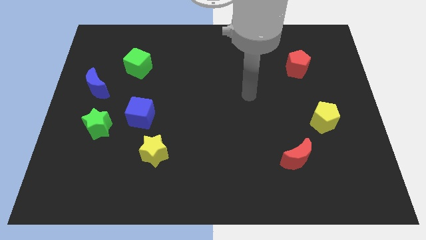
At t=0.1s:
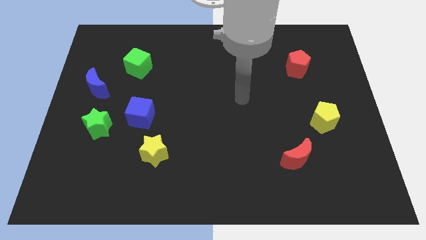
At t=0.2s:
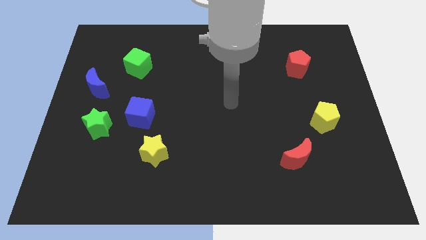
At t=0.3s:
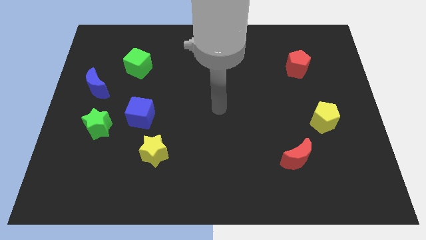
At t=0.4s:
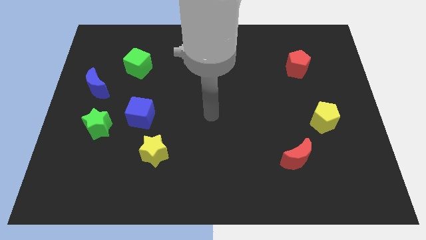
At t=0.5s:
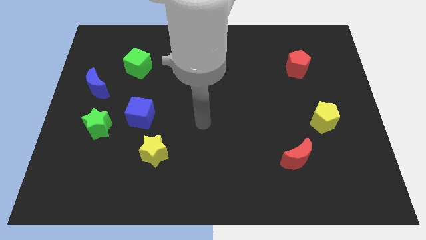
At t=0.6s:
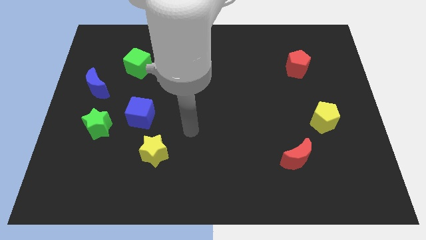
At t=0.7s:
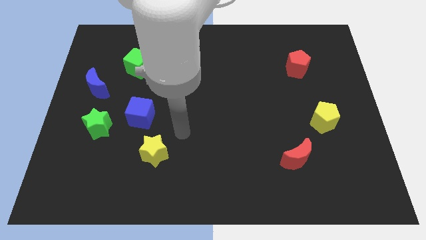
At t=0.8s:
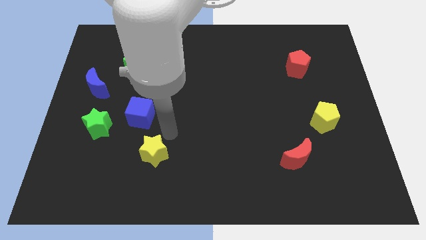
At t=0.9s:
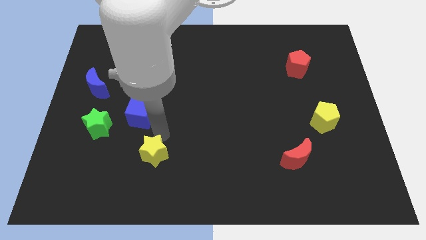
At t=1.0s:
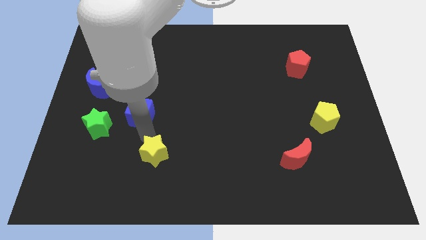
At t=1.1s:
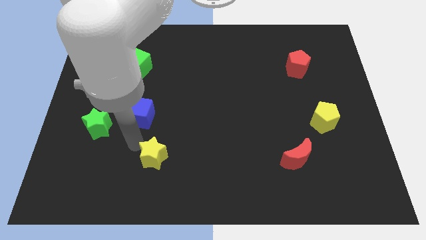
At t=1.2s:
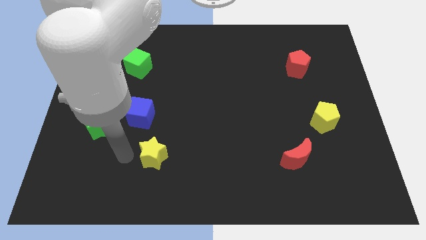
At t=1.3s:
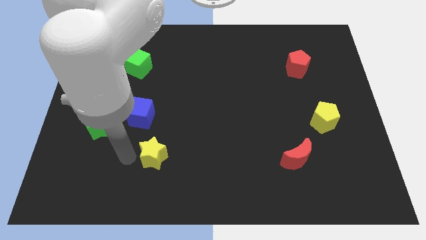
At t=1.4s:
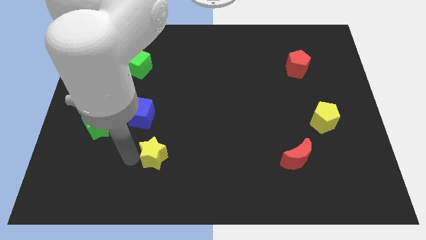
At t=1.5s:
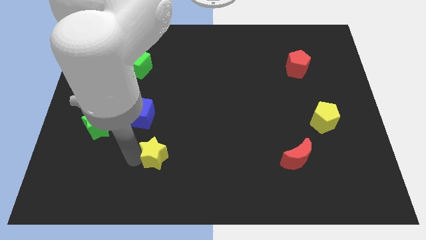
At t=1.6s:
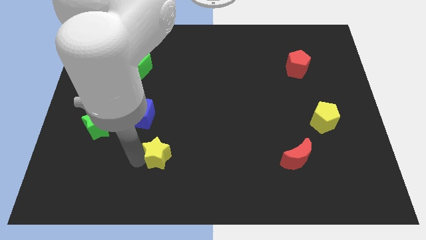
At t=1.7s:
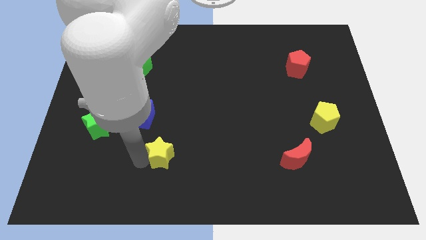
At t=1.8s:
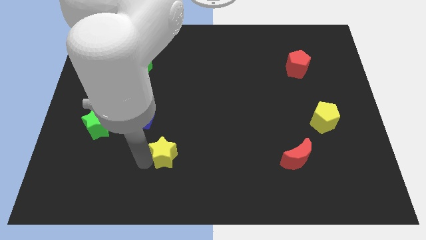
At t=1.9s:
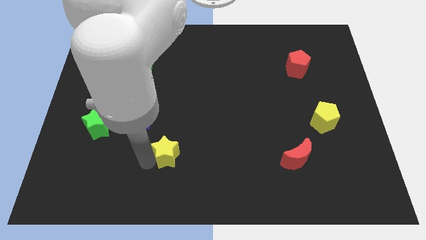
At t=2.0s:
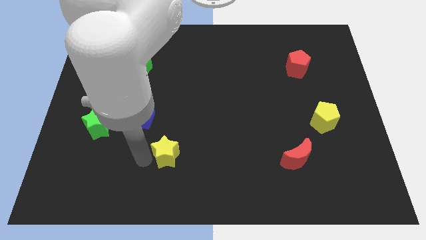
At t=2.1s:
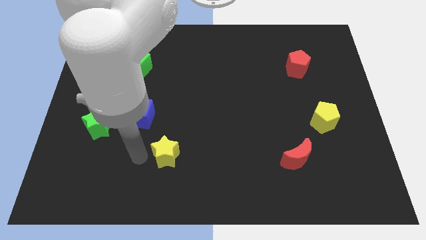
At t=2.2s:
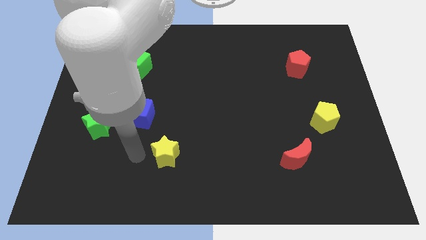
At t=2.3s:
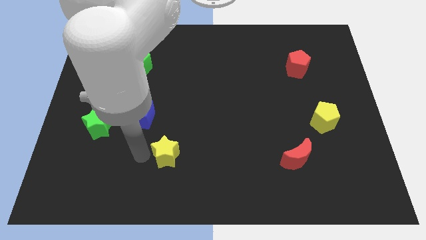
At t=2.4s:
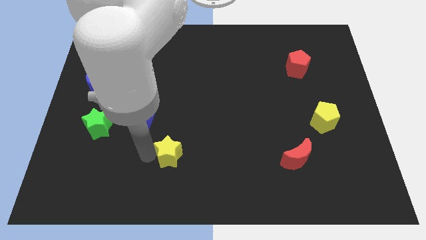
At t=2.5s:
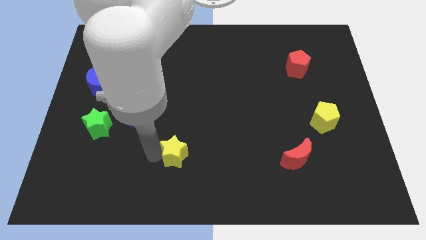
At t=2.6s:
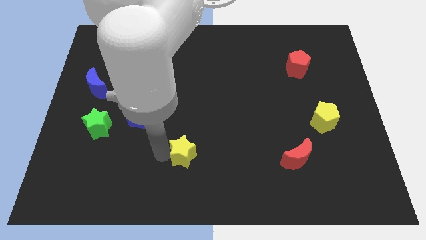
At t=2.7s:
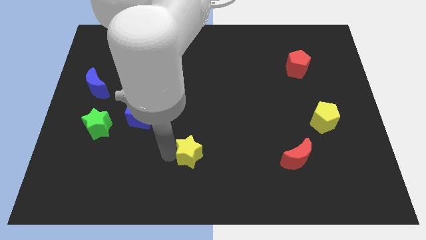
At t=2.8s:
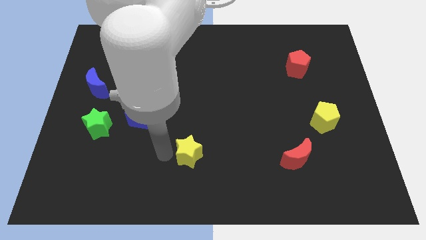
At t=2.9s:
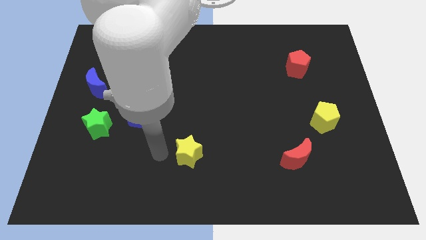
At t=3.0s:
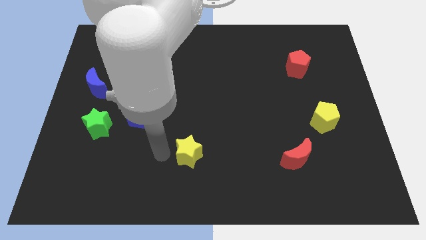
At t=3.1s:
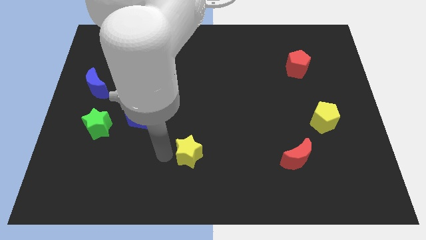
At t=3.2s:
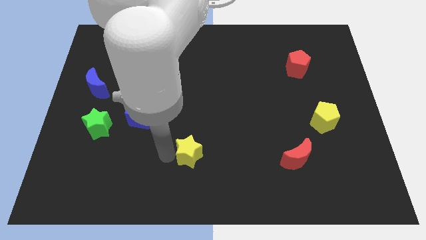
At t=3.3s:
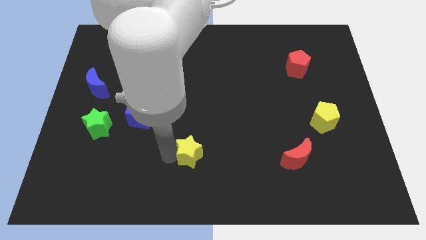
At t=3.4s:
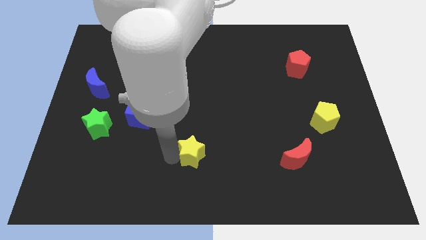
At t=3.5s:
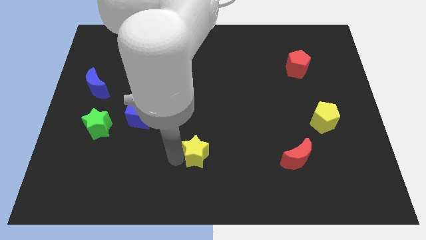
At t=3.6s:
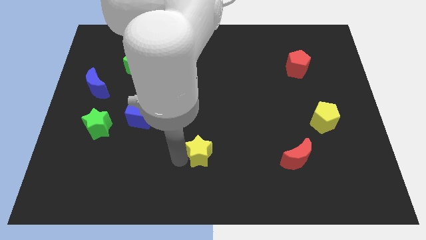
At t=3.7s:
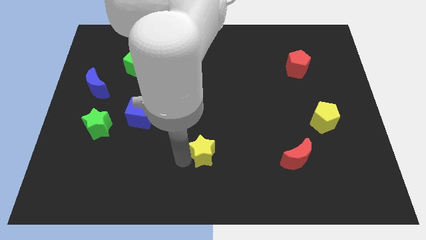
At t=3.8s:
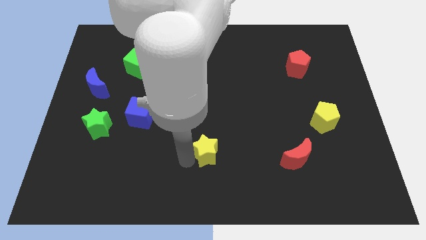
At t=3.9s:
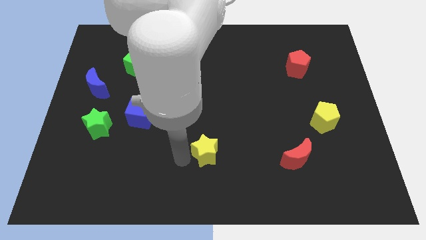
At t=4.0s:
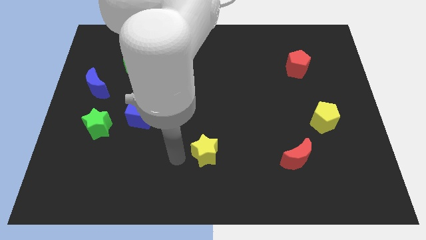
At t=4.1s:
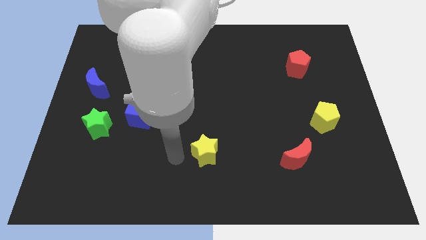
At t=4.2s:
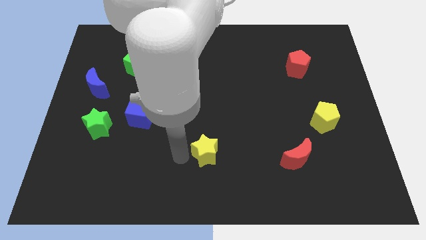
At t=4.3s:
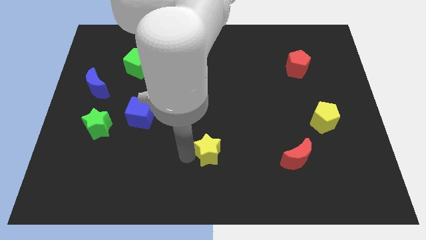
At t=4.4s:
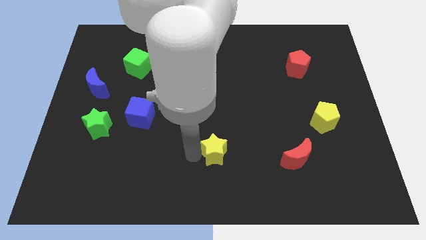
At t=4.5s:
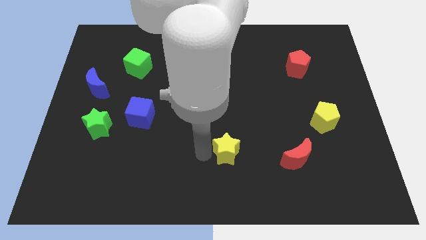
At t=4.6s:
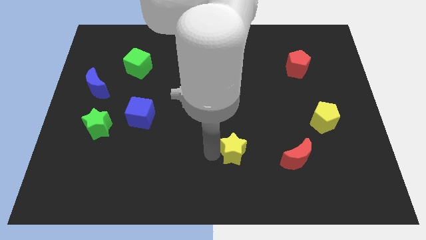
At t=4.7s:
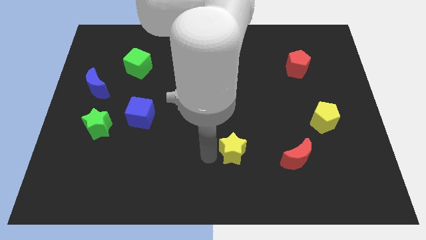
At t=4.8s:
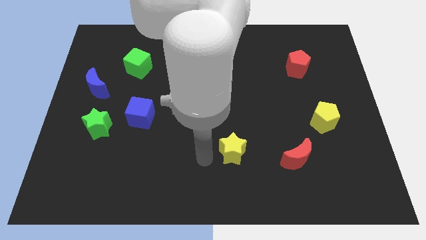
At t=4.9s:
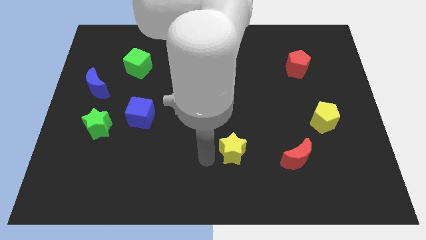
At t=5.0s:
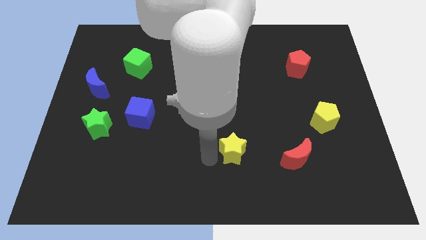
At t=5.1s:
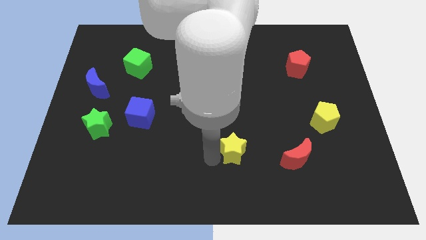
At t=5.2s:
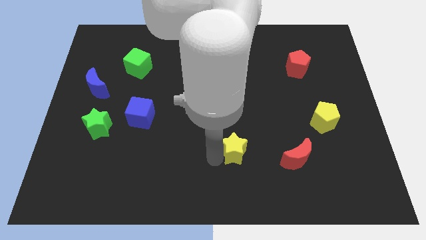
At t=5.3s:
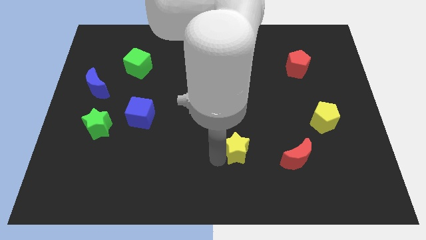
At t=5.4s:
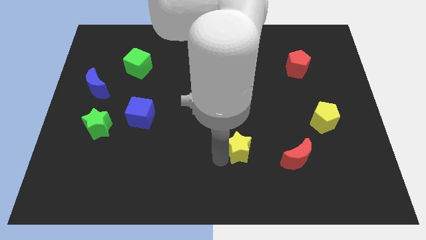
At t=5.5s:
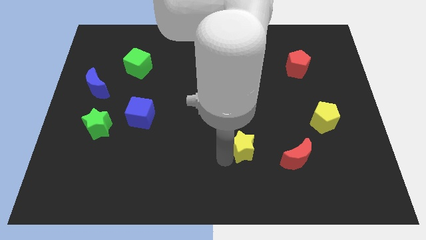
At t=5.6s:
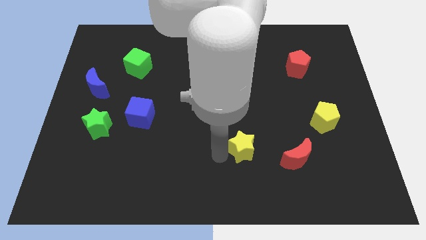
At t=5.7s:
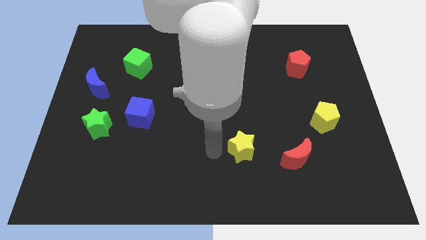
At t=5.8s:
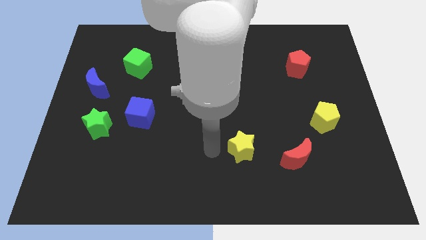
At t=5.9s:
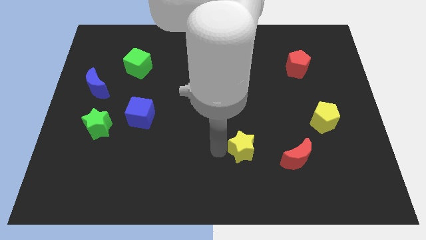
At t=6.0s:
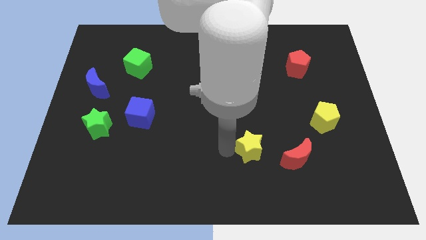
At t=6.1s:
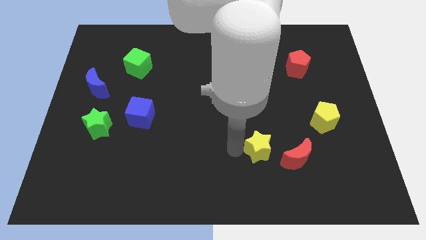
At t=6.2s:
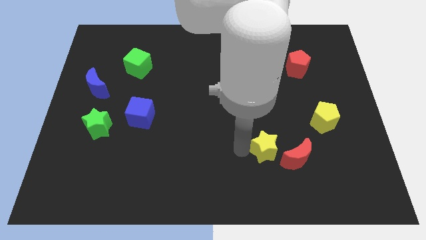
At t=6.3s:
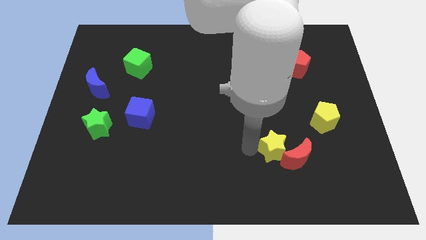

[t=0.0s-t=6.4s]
push the yellow star next to the red moon

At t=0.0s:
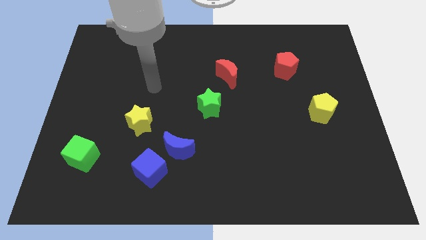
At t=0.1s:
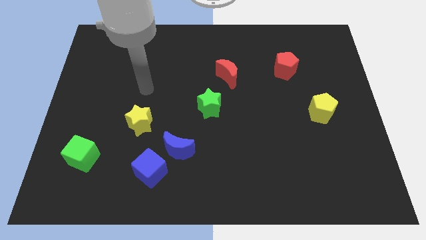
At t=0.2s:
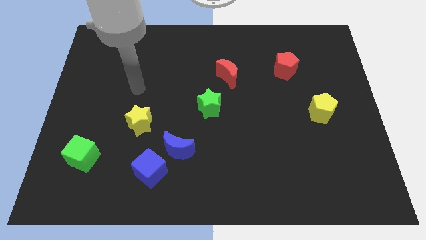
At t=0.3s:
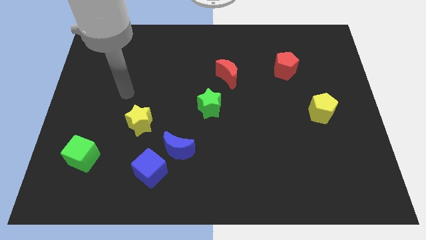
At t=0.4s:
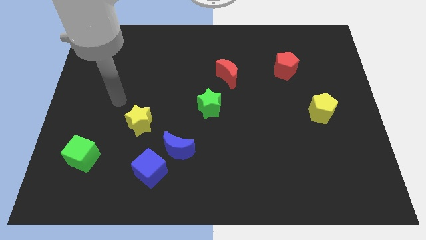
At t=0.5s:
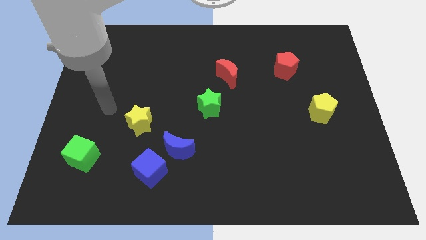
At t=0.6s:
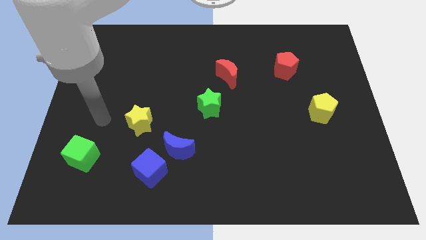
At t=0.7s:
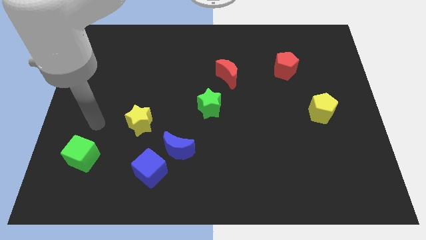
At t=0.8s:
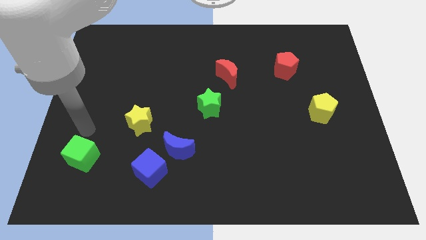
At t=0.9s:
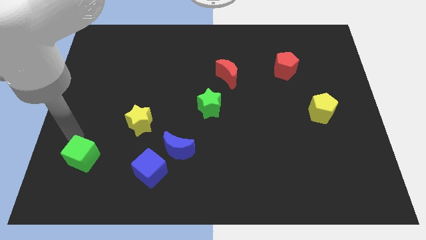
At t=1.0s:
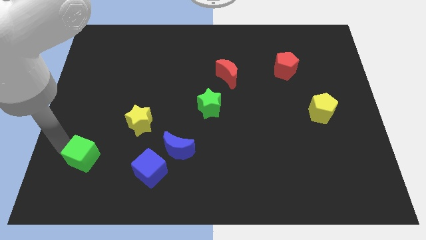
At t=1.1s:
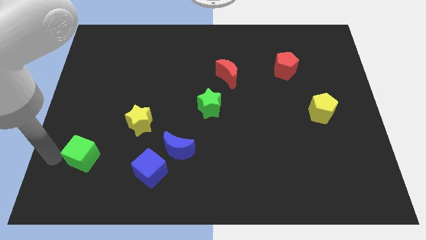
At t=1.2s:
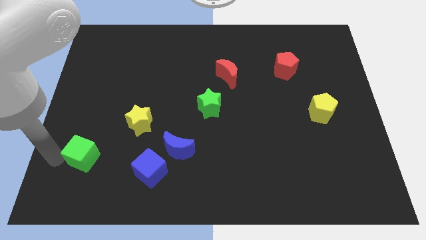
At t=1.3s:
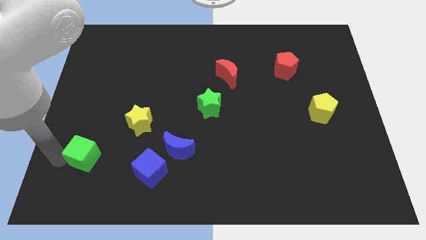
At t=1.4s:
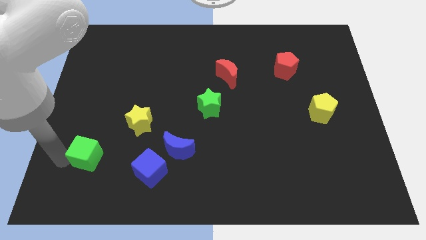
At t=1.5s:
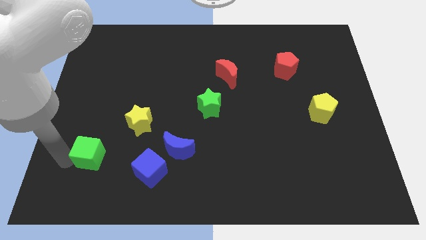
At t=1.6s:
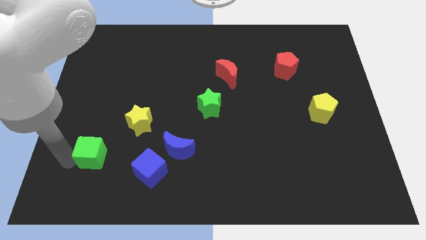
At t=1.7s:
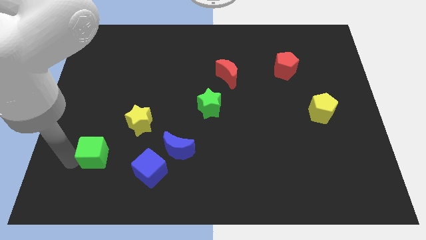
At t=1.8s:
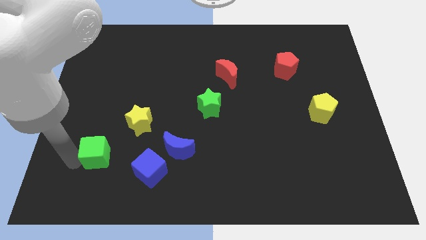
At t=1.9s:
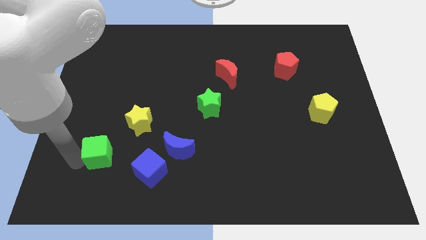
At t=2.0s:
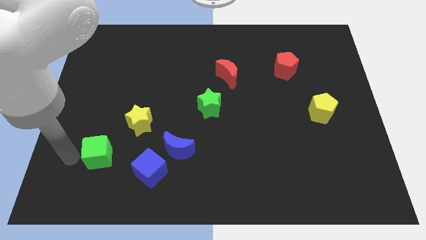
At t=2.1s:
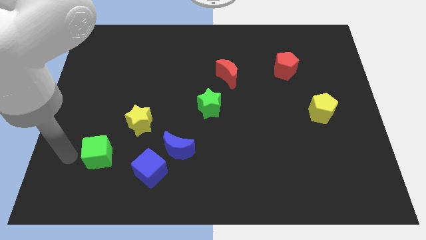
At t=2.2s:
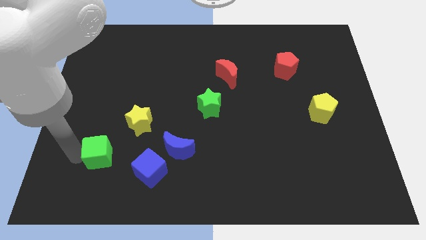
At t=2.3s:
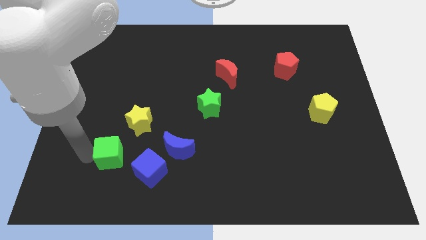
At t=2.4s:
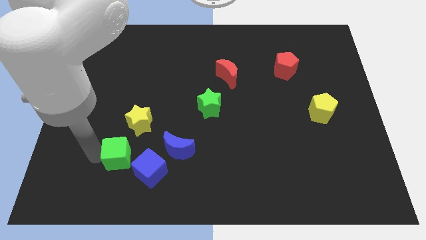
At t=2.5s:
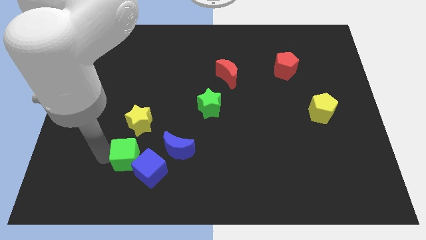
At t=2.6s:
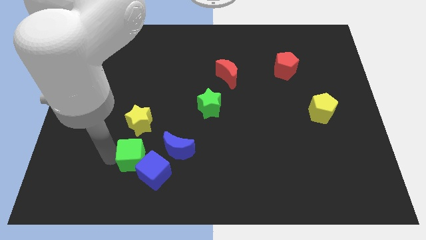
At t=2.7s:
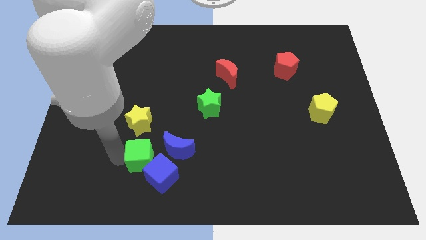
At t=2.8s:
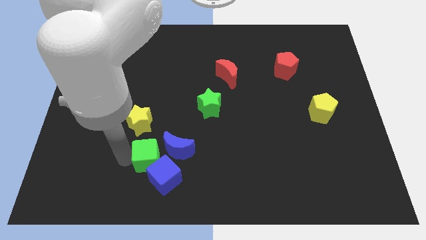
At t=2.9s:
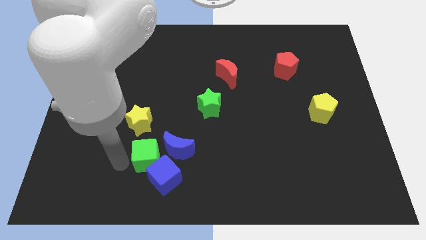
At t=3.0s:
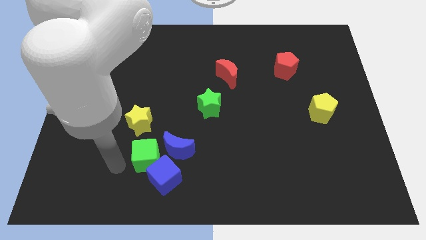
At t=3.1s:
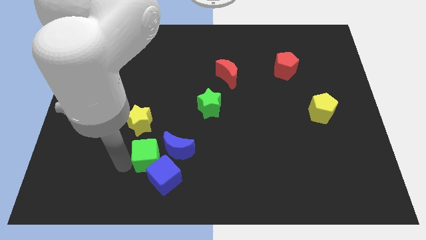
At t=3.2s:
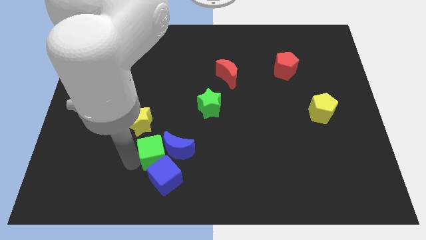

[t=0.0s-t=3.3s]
move the green cube to the blue moon
